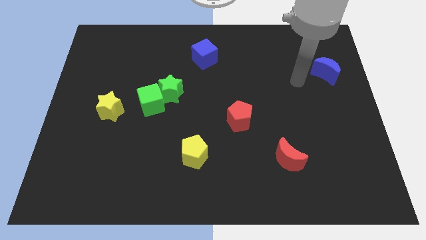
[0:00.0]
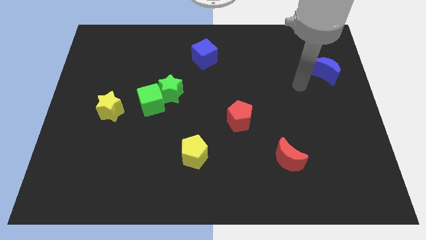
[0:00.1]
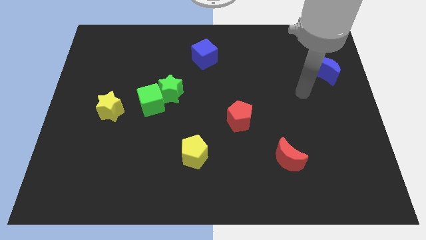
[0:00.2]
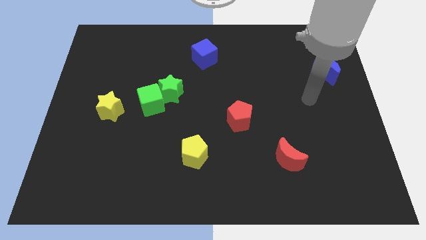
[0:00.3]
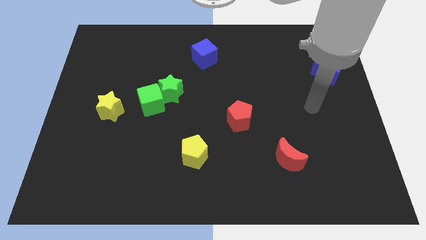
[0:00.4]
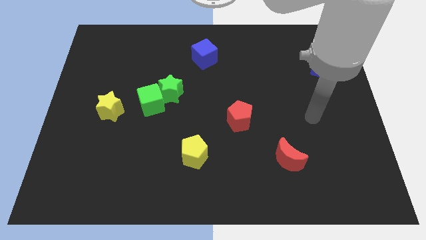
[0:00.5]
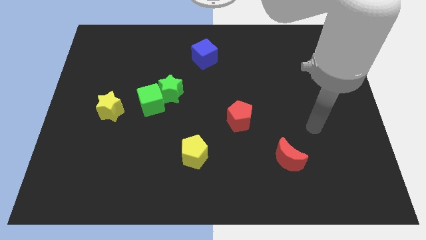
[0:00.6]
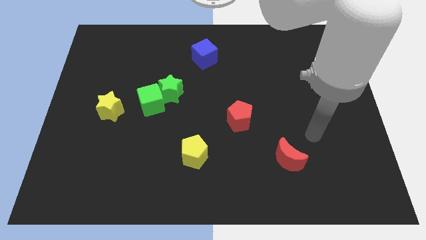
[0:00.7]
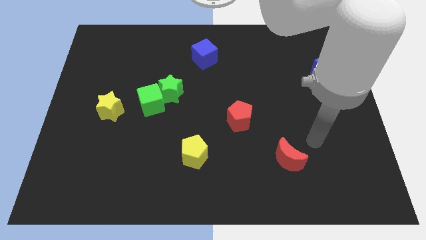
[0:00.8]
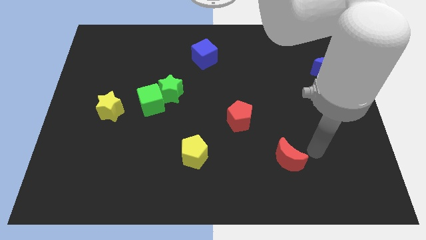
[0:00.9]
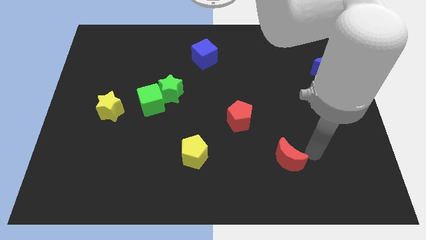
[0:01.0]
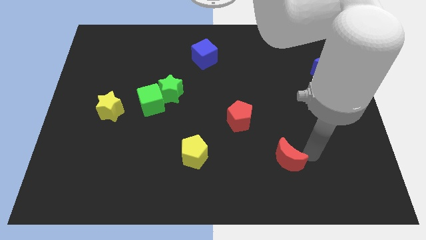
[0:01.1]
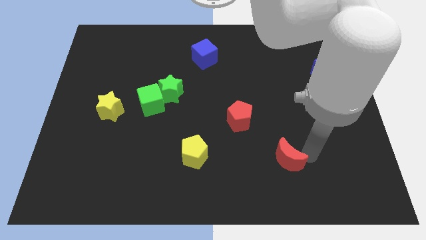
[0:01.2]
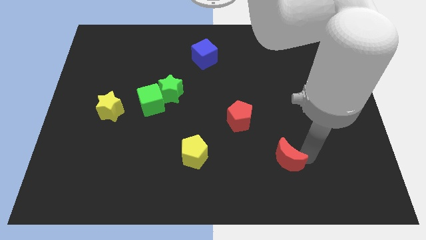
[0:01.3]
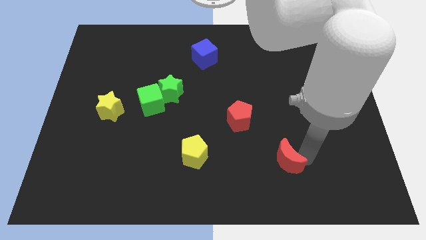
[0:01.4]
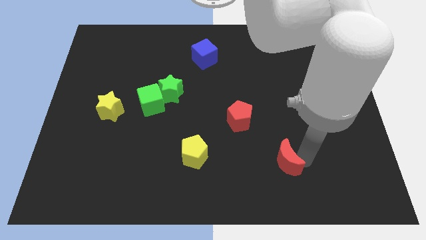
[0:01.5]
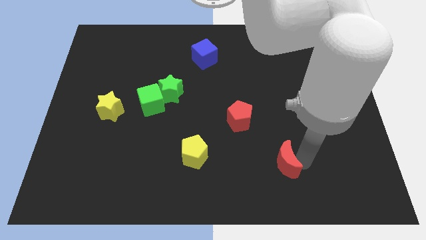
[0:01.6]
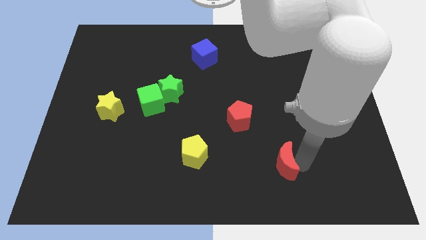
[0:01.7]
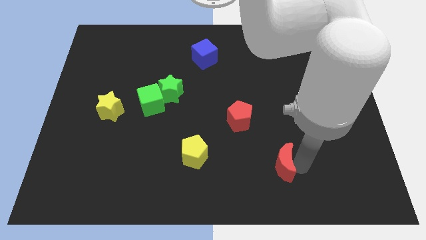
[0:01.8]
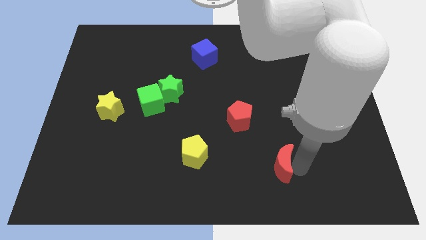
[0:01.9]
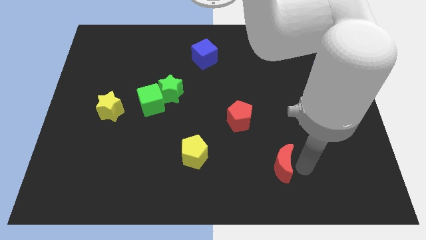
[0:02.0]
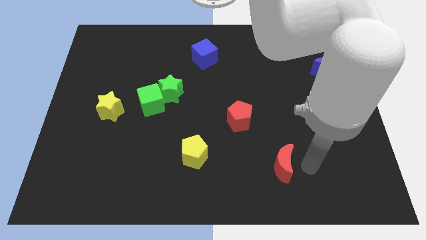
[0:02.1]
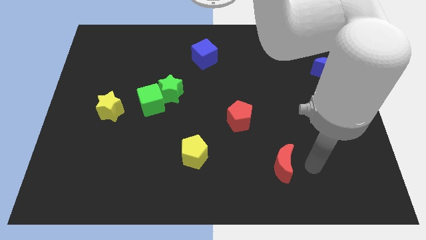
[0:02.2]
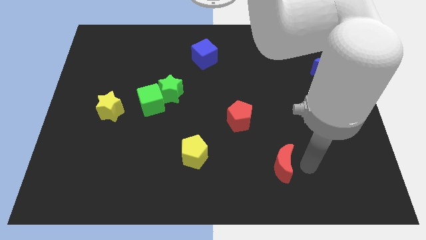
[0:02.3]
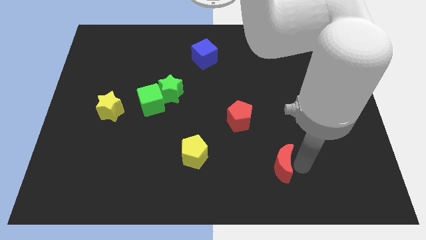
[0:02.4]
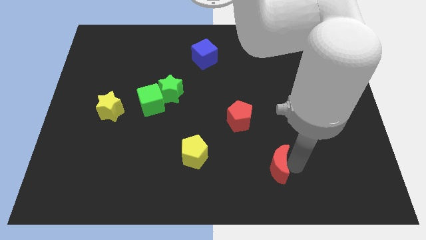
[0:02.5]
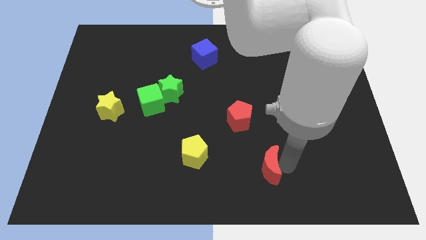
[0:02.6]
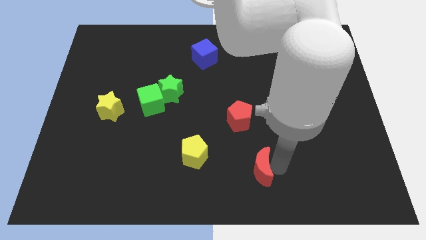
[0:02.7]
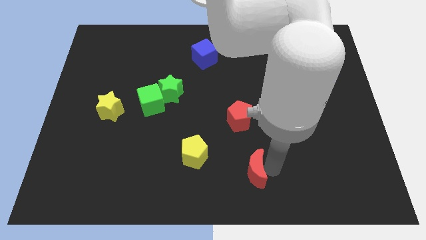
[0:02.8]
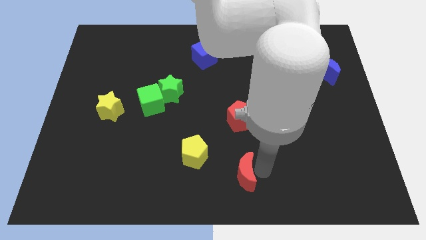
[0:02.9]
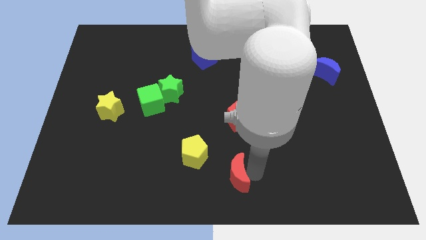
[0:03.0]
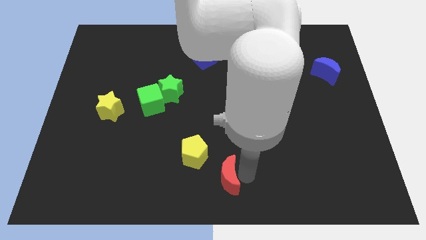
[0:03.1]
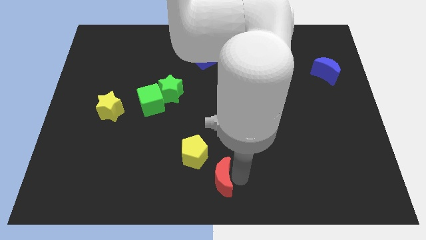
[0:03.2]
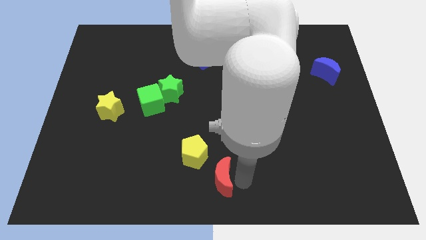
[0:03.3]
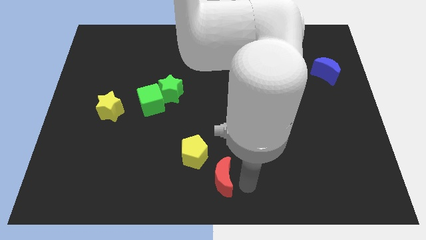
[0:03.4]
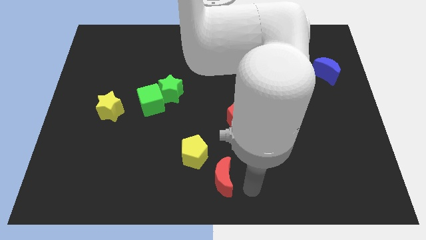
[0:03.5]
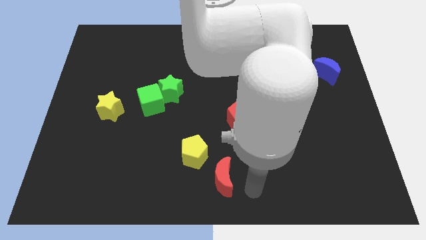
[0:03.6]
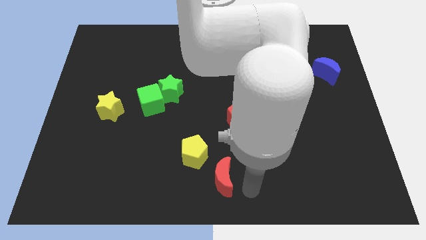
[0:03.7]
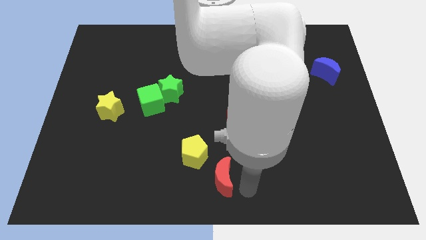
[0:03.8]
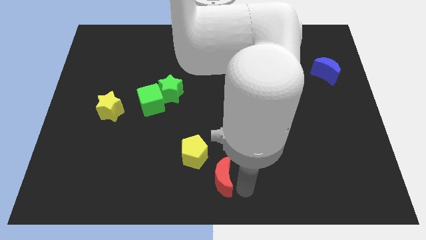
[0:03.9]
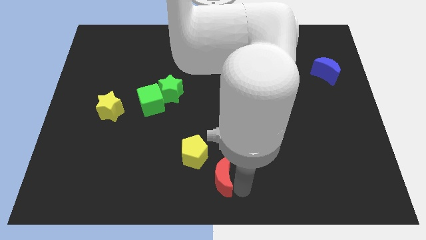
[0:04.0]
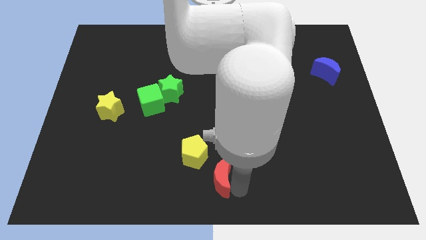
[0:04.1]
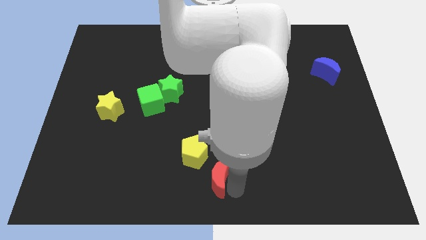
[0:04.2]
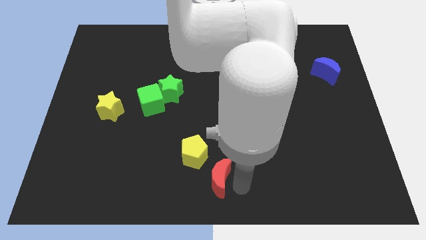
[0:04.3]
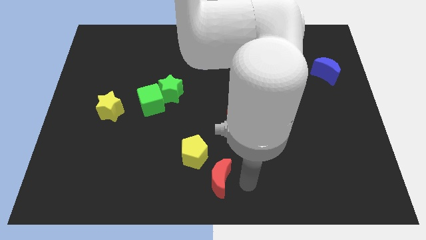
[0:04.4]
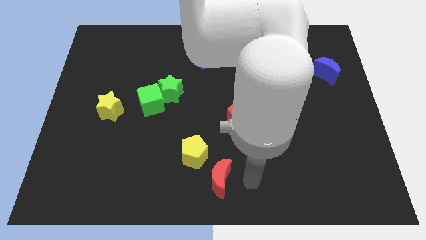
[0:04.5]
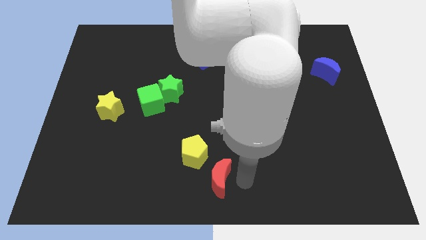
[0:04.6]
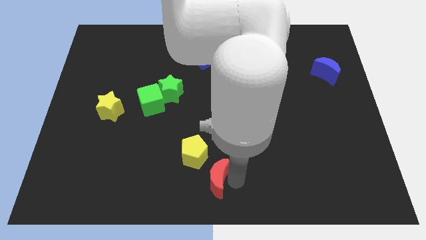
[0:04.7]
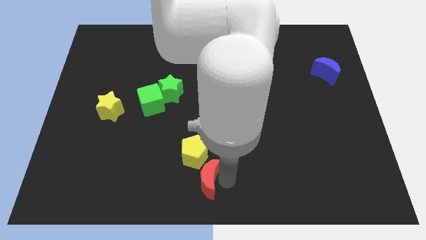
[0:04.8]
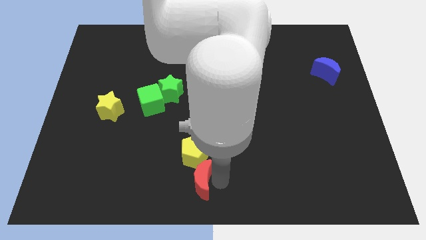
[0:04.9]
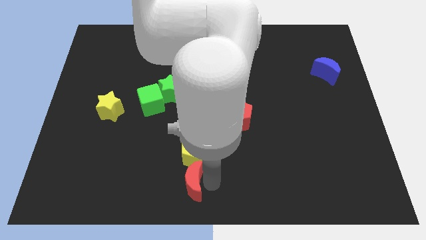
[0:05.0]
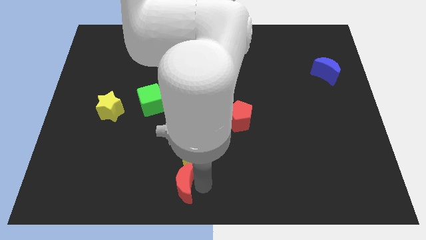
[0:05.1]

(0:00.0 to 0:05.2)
slide the red moon to the left

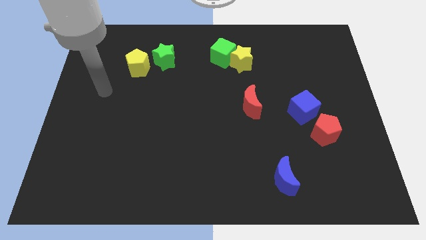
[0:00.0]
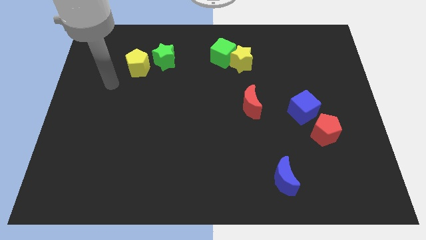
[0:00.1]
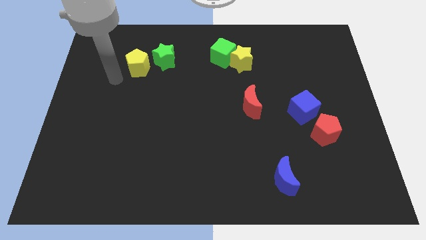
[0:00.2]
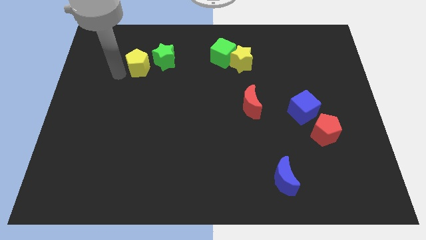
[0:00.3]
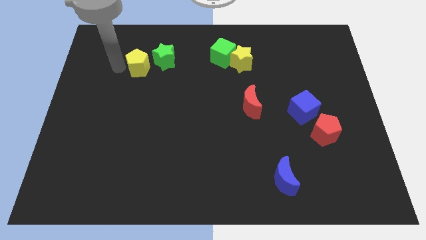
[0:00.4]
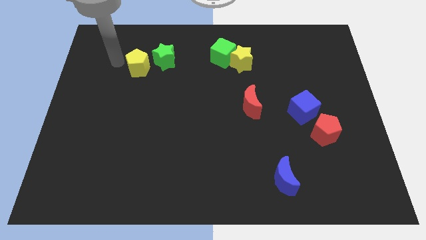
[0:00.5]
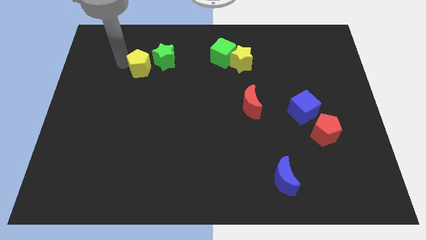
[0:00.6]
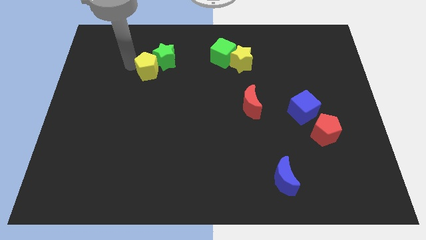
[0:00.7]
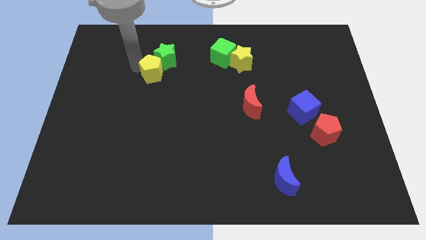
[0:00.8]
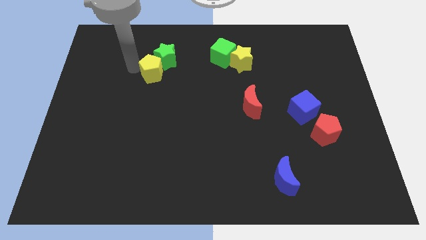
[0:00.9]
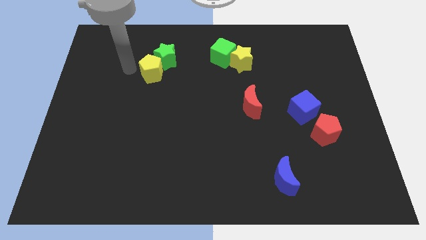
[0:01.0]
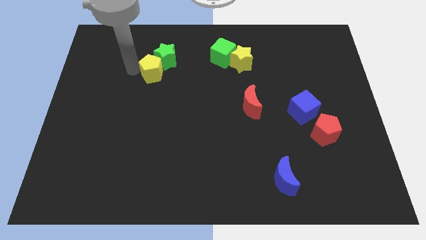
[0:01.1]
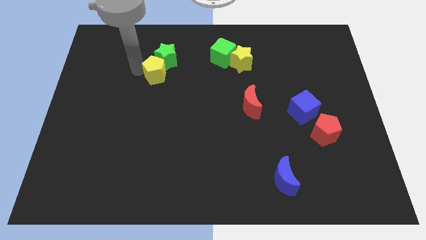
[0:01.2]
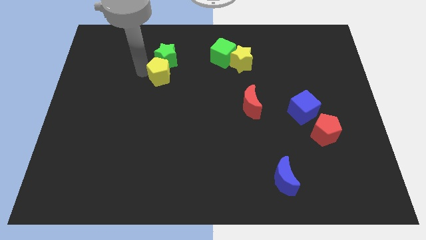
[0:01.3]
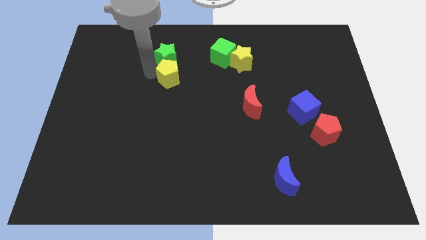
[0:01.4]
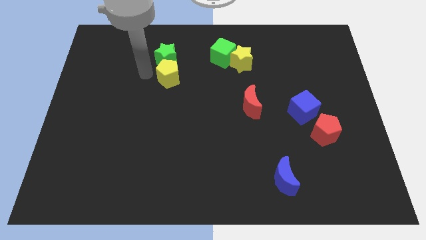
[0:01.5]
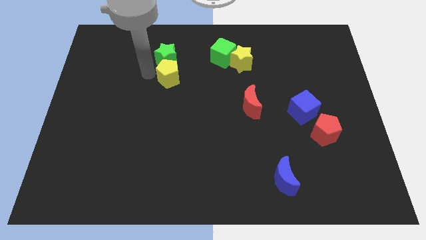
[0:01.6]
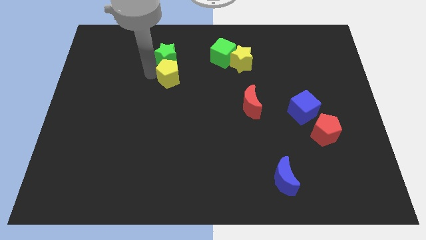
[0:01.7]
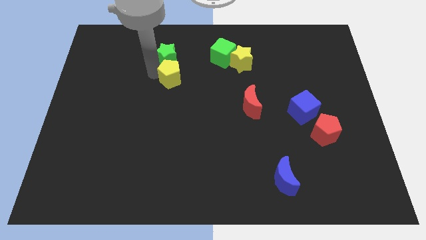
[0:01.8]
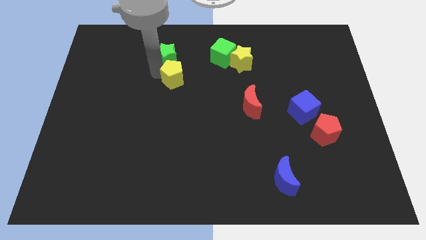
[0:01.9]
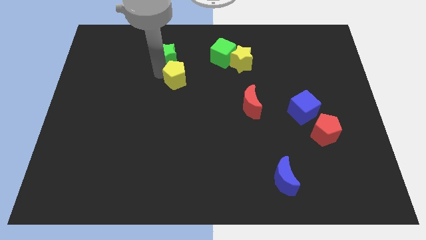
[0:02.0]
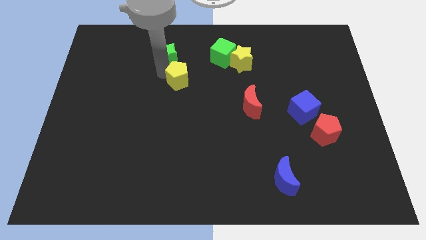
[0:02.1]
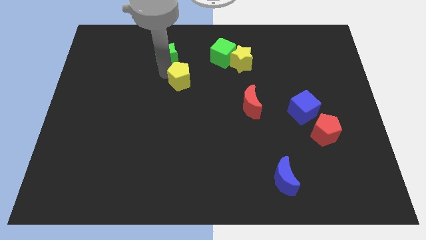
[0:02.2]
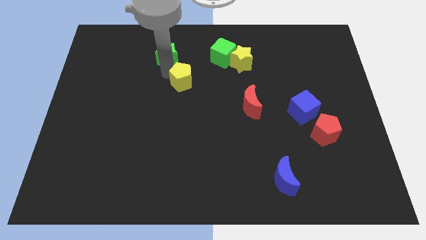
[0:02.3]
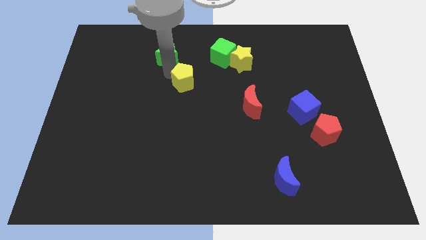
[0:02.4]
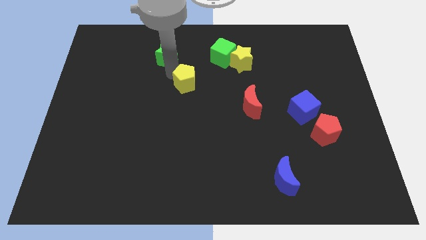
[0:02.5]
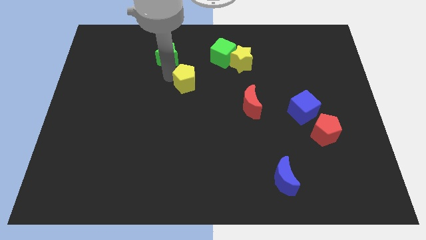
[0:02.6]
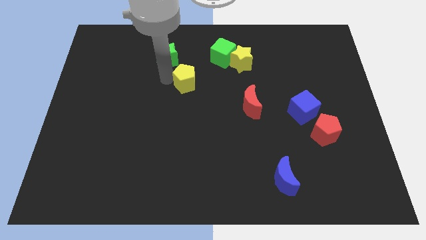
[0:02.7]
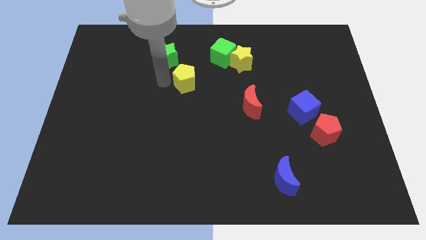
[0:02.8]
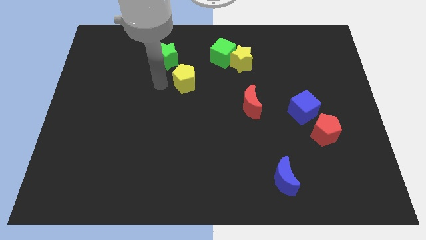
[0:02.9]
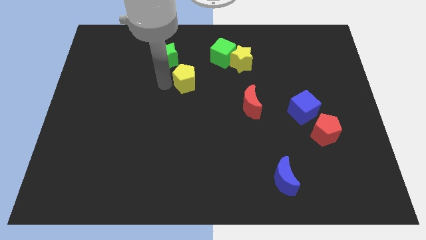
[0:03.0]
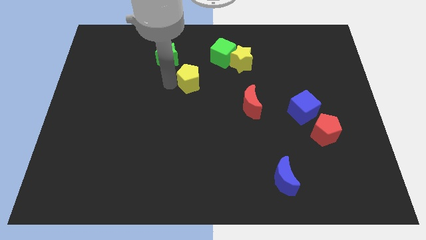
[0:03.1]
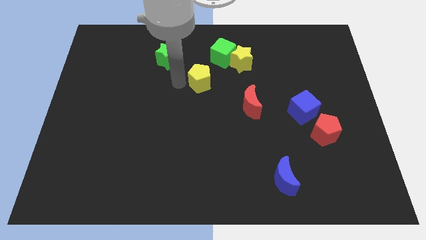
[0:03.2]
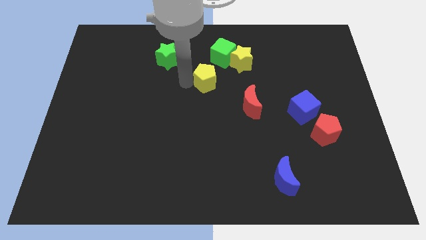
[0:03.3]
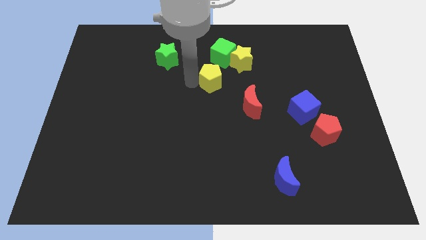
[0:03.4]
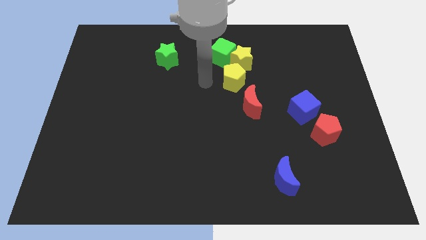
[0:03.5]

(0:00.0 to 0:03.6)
move the yellow pentagon right
